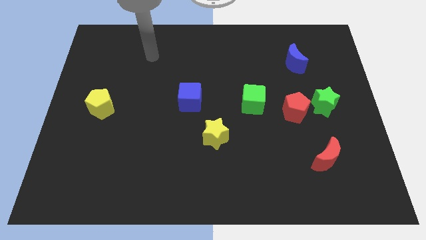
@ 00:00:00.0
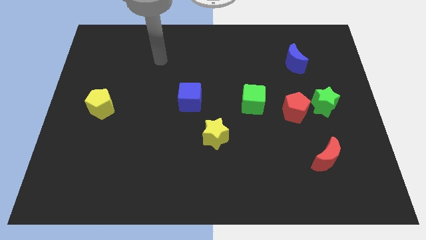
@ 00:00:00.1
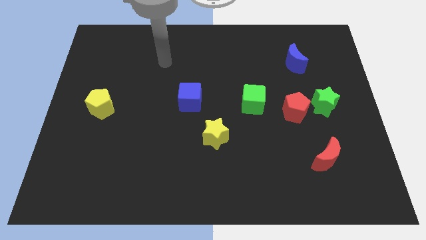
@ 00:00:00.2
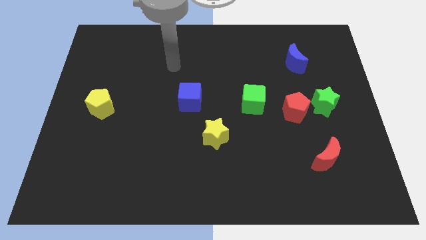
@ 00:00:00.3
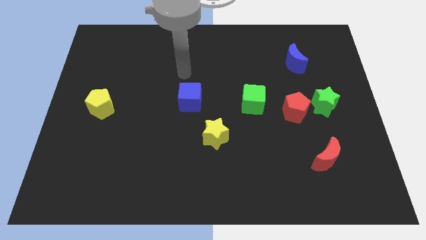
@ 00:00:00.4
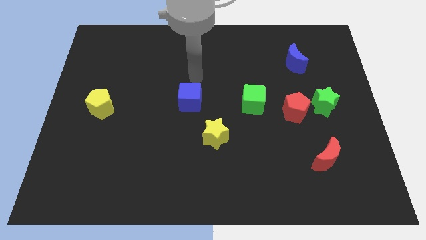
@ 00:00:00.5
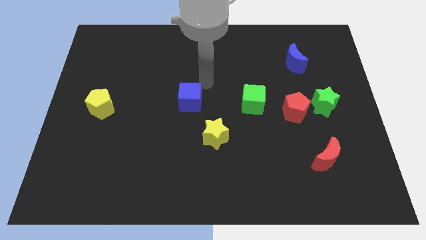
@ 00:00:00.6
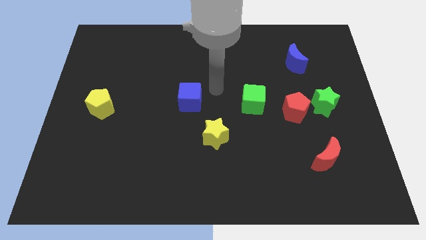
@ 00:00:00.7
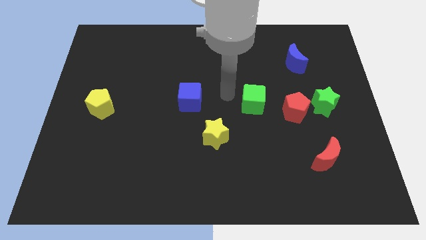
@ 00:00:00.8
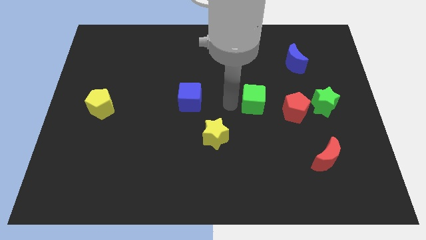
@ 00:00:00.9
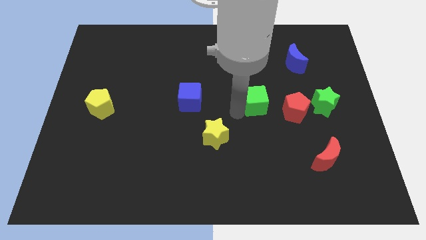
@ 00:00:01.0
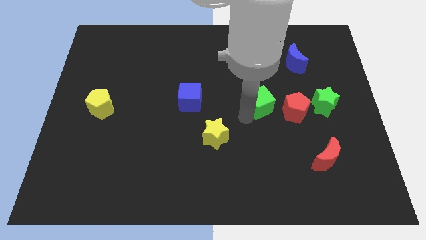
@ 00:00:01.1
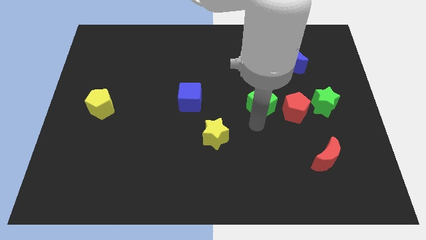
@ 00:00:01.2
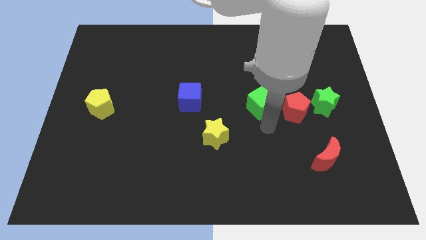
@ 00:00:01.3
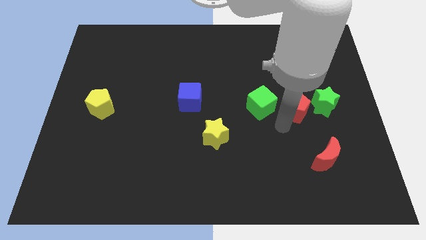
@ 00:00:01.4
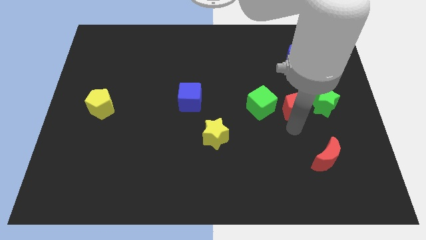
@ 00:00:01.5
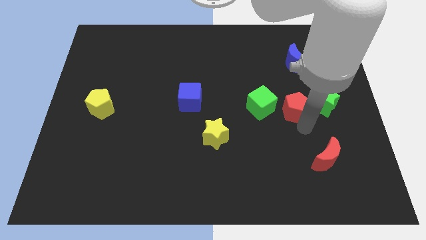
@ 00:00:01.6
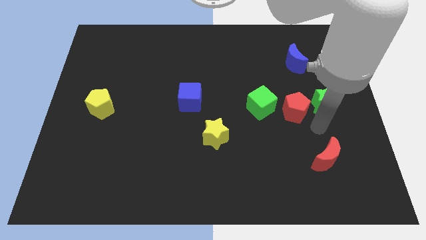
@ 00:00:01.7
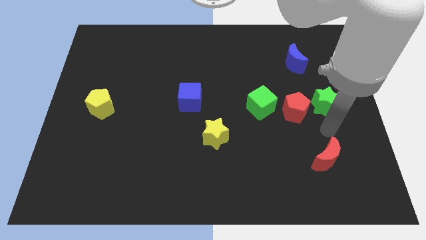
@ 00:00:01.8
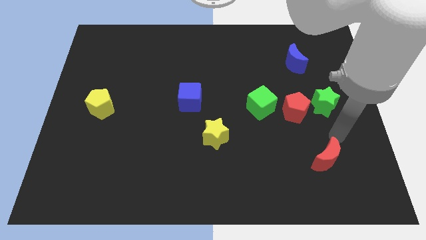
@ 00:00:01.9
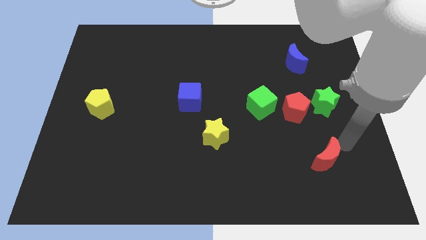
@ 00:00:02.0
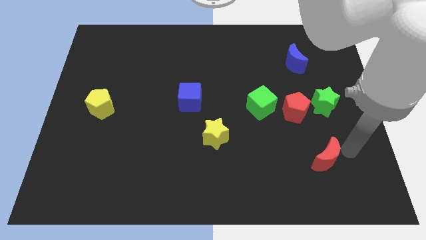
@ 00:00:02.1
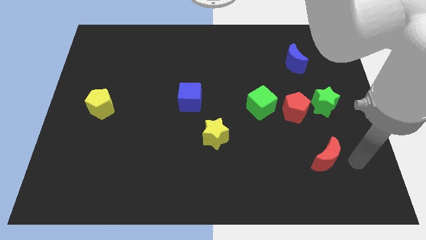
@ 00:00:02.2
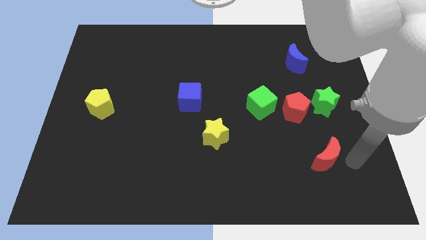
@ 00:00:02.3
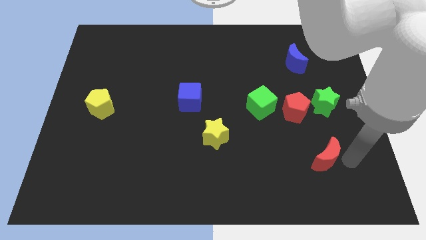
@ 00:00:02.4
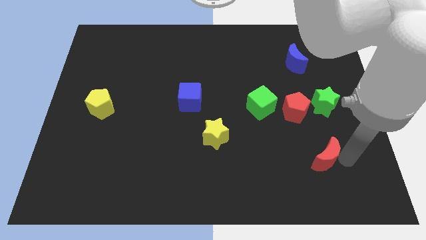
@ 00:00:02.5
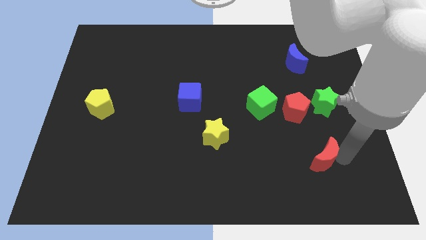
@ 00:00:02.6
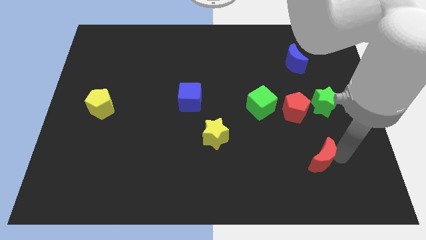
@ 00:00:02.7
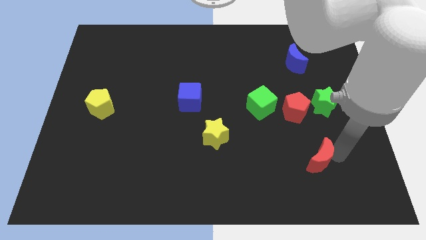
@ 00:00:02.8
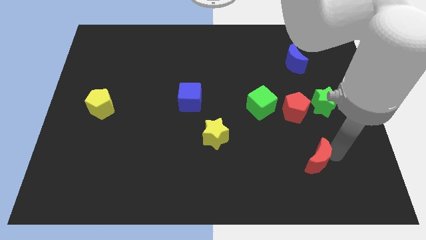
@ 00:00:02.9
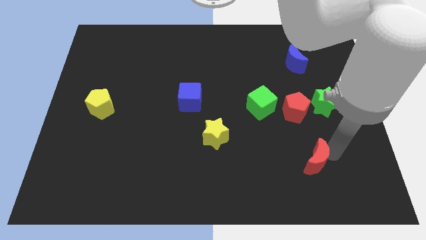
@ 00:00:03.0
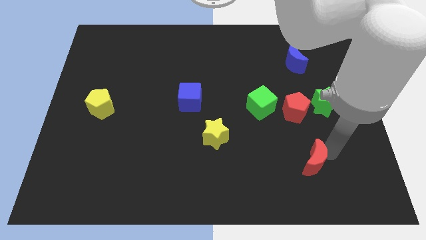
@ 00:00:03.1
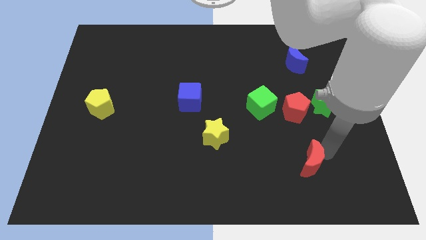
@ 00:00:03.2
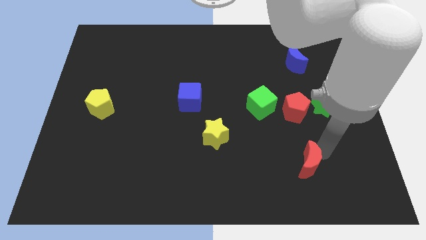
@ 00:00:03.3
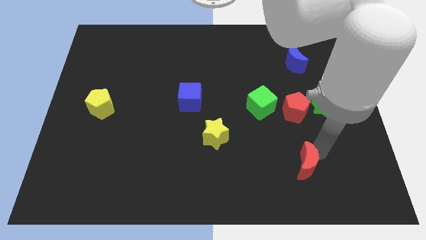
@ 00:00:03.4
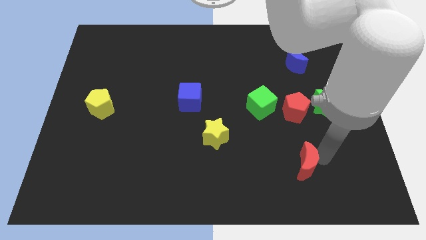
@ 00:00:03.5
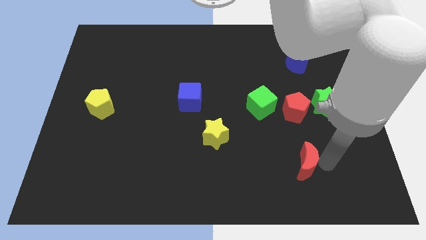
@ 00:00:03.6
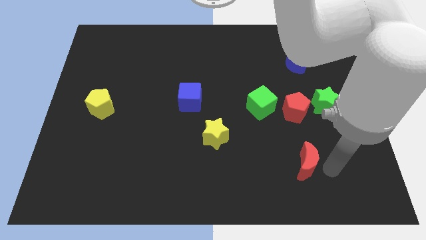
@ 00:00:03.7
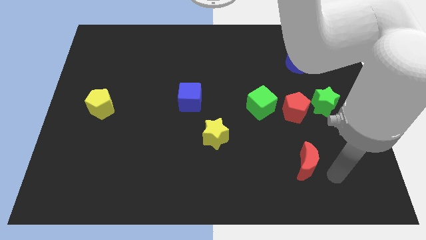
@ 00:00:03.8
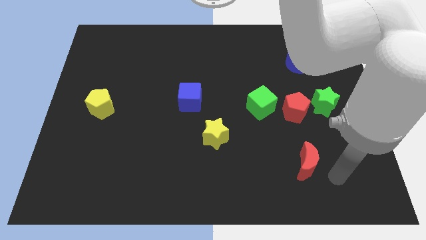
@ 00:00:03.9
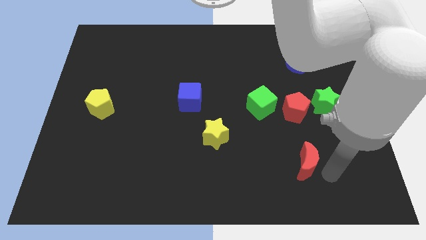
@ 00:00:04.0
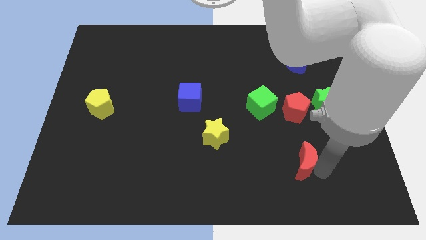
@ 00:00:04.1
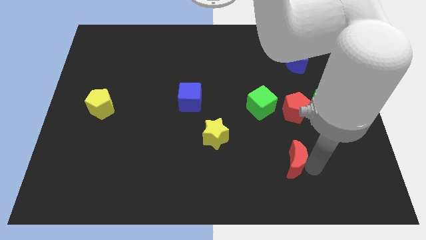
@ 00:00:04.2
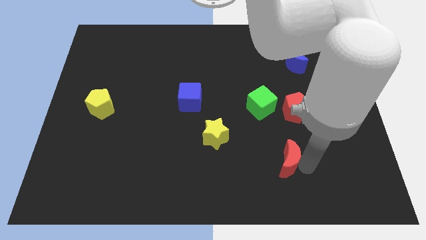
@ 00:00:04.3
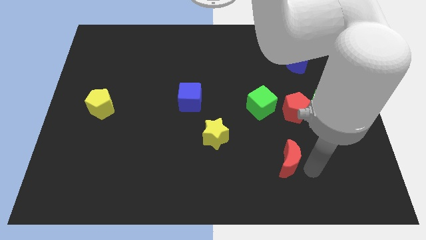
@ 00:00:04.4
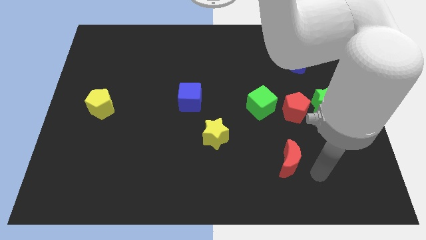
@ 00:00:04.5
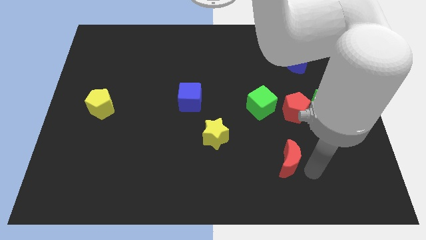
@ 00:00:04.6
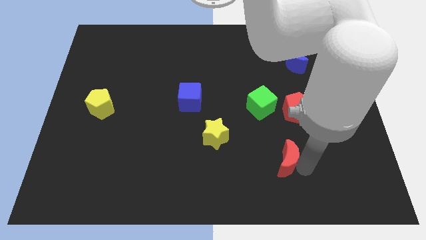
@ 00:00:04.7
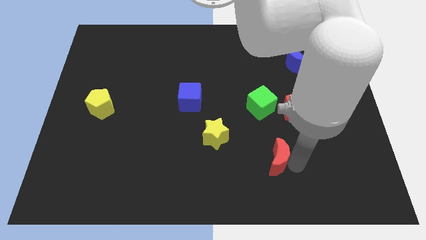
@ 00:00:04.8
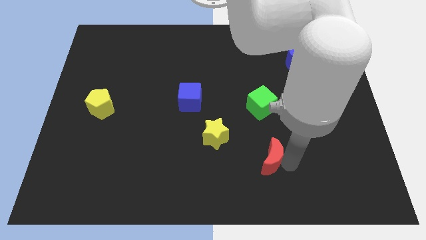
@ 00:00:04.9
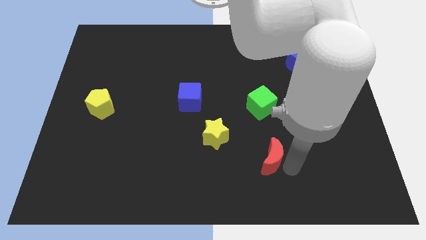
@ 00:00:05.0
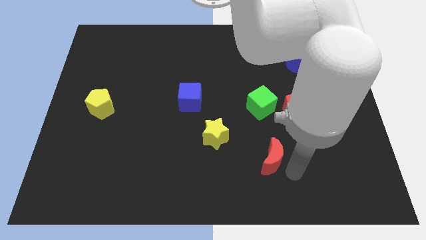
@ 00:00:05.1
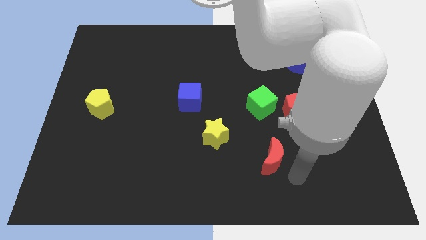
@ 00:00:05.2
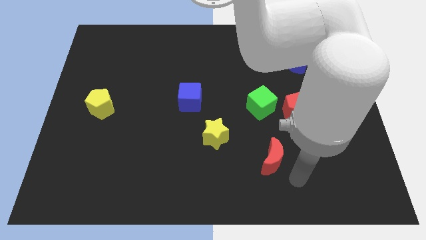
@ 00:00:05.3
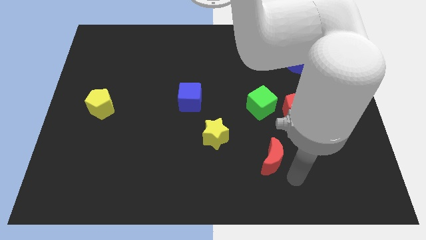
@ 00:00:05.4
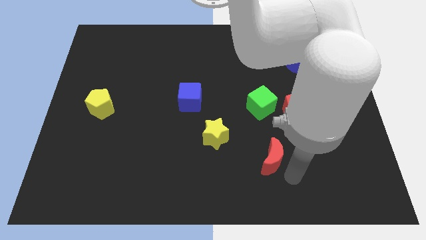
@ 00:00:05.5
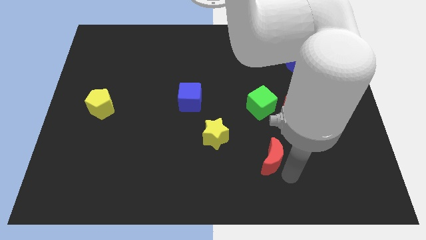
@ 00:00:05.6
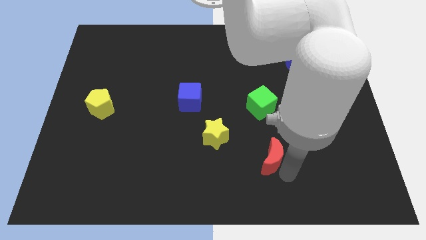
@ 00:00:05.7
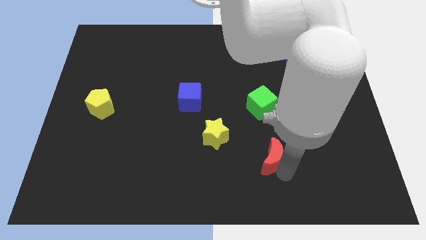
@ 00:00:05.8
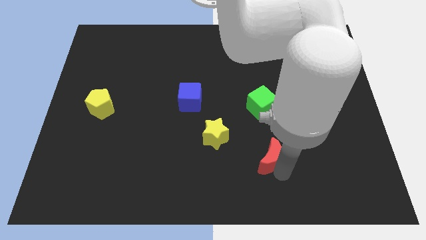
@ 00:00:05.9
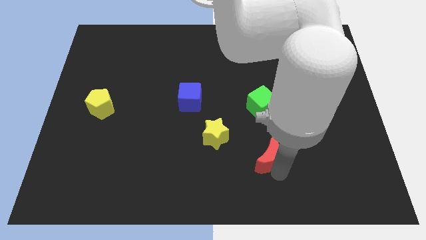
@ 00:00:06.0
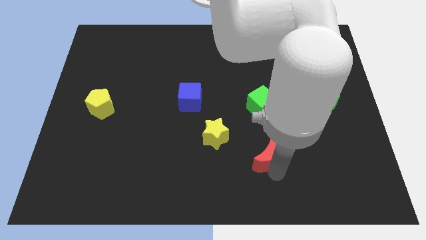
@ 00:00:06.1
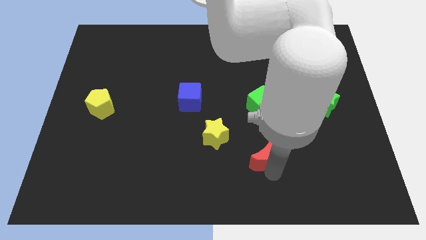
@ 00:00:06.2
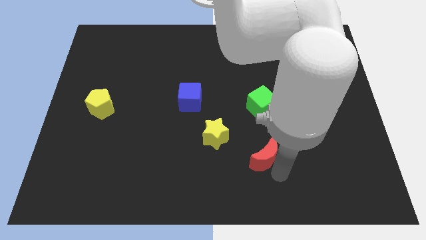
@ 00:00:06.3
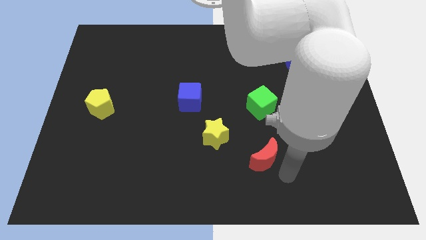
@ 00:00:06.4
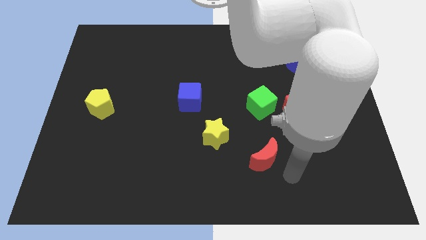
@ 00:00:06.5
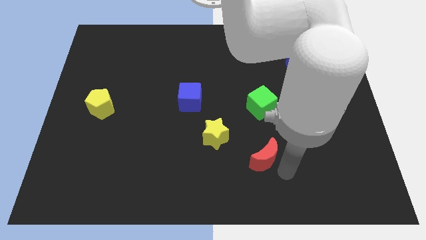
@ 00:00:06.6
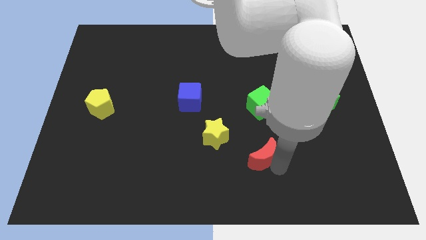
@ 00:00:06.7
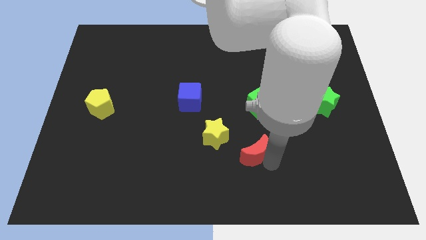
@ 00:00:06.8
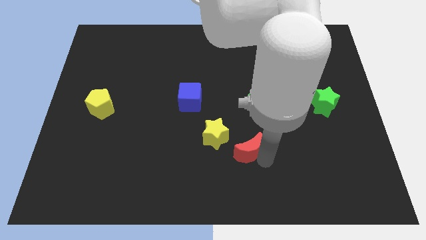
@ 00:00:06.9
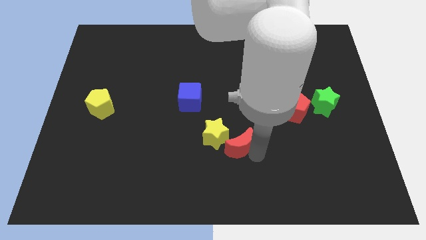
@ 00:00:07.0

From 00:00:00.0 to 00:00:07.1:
push the red moon next to the yellow star
